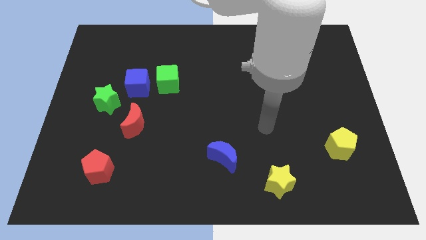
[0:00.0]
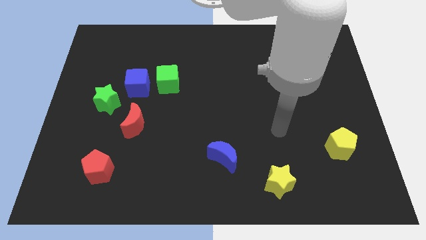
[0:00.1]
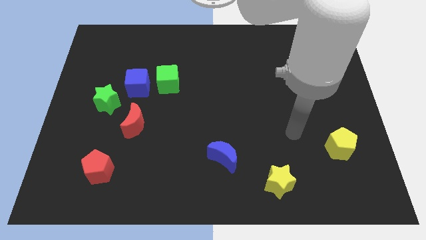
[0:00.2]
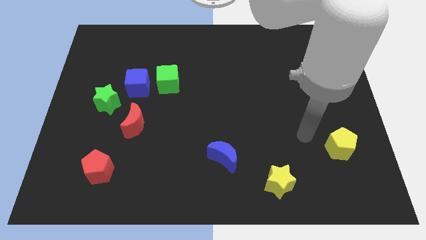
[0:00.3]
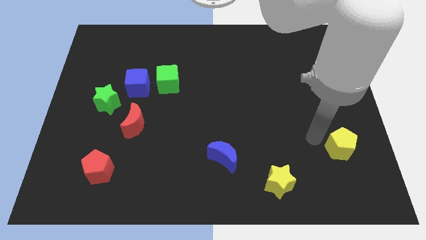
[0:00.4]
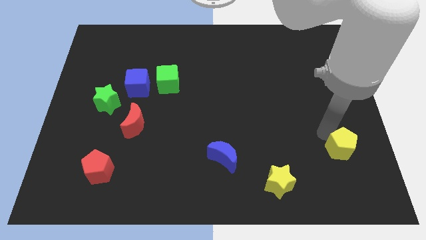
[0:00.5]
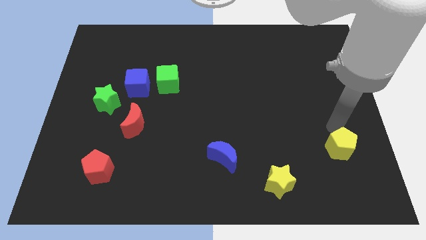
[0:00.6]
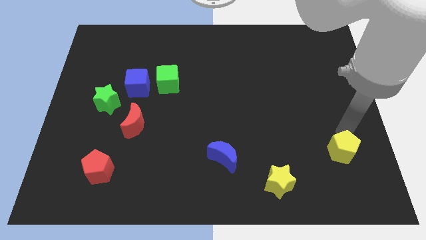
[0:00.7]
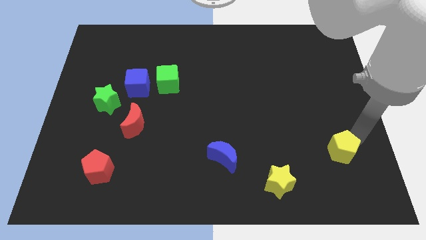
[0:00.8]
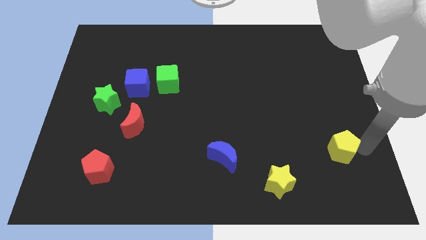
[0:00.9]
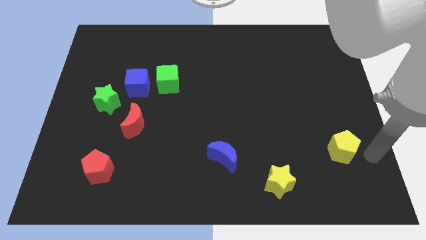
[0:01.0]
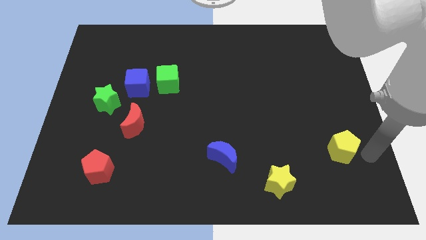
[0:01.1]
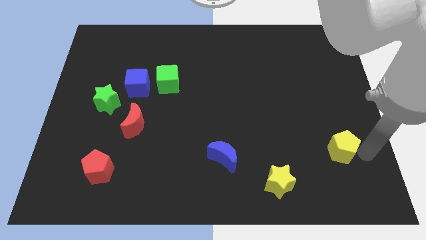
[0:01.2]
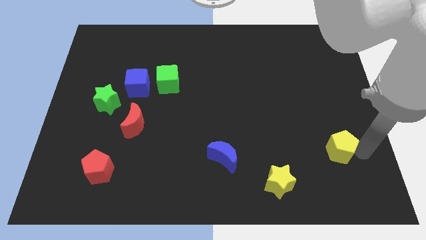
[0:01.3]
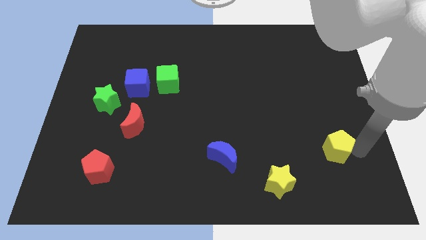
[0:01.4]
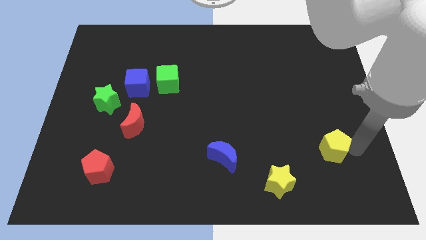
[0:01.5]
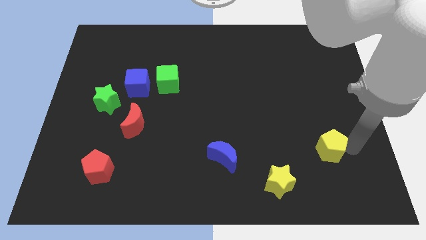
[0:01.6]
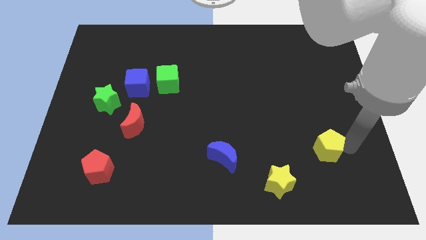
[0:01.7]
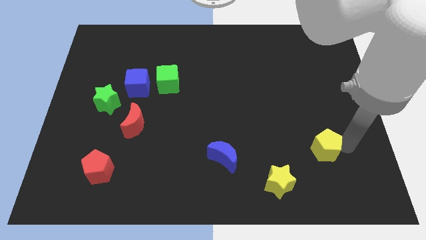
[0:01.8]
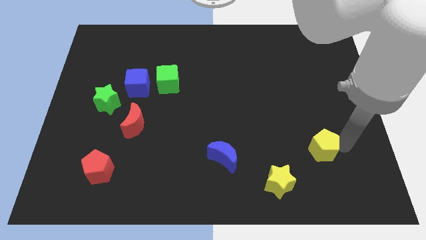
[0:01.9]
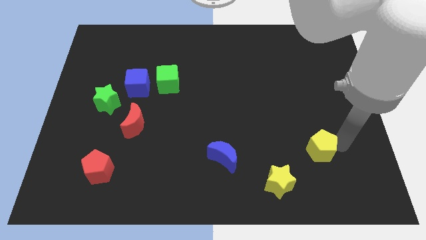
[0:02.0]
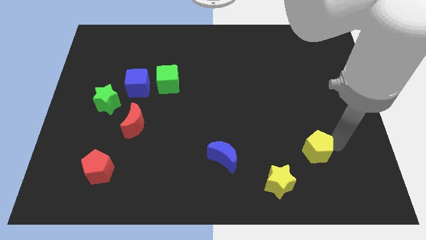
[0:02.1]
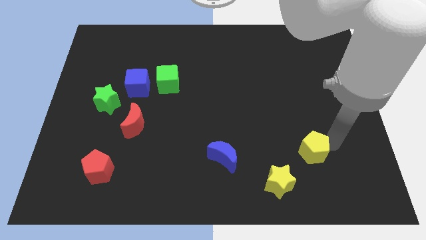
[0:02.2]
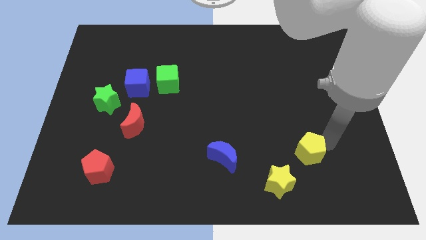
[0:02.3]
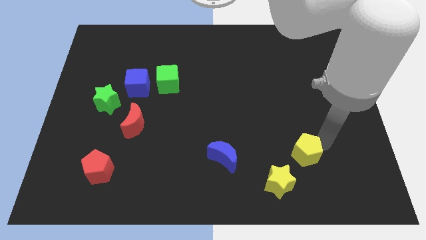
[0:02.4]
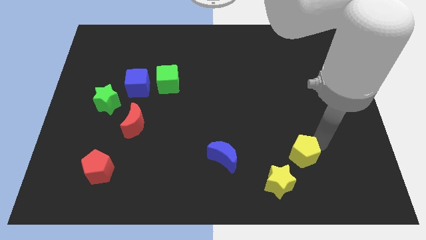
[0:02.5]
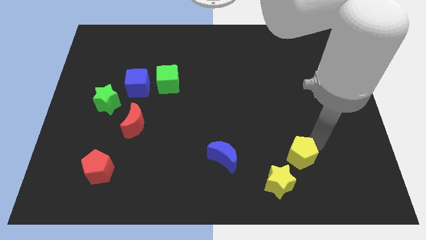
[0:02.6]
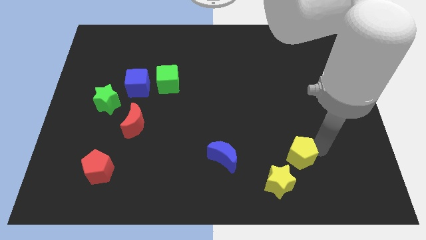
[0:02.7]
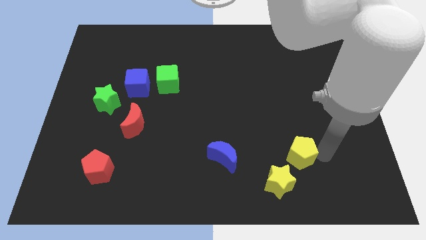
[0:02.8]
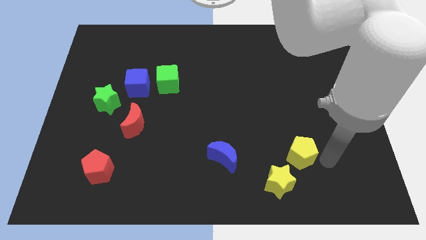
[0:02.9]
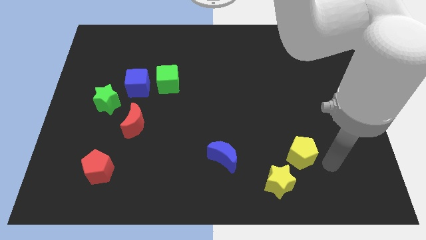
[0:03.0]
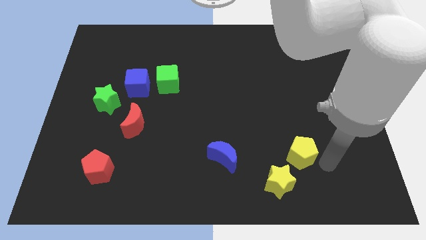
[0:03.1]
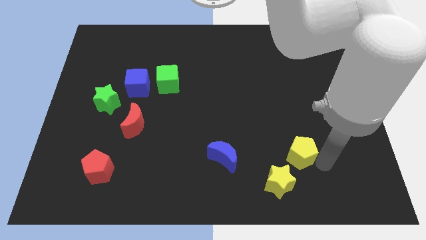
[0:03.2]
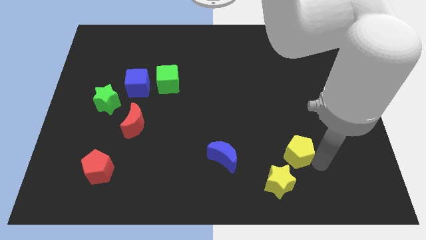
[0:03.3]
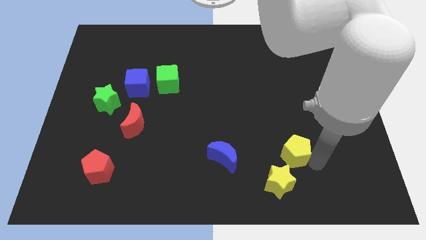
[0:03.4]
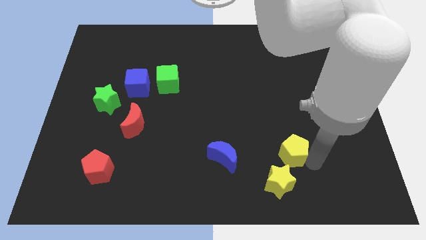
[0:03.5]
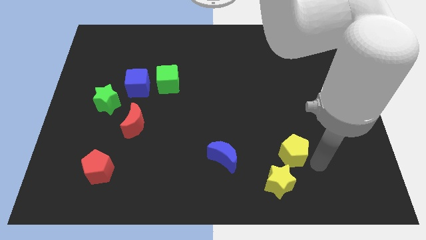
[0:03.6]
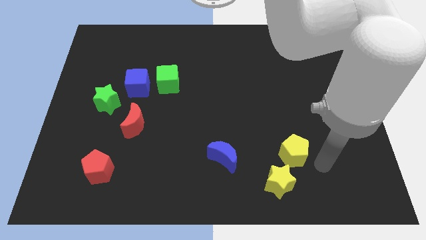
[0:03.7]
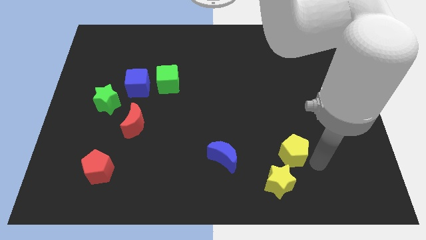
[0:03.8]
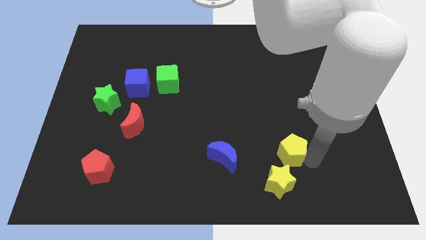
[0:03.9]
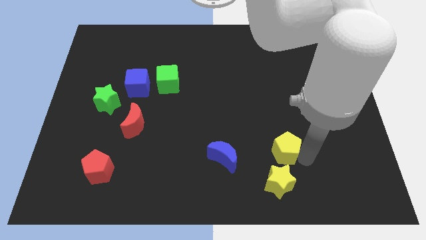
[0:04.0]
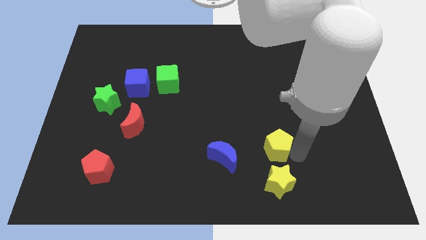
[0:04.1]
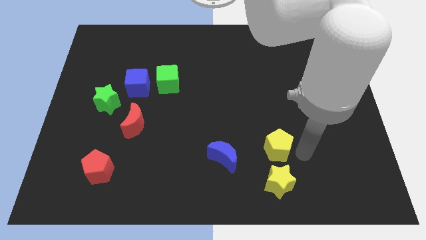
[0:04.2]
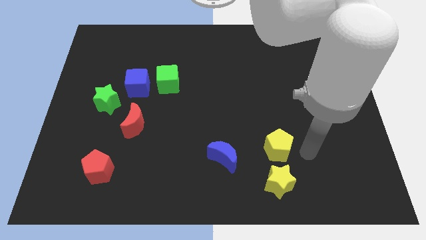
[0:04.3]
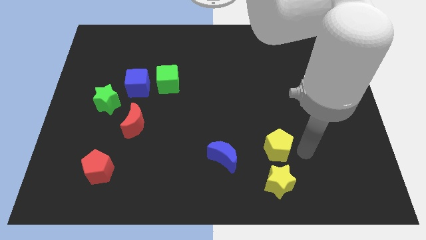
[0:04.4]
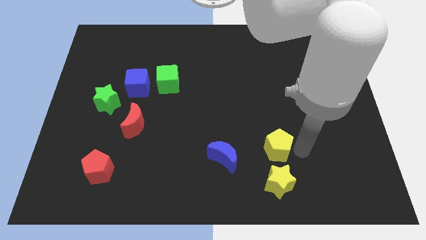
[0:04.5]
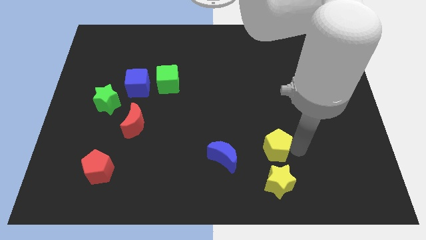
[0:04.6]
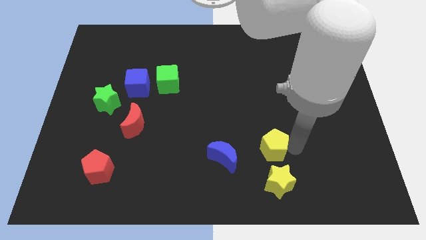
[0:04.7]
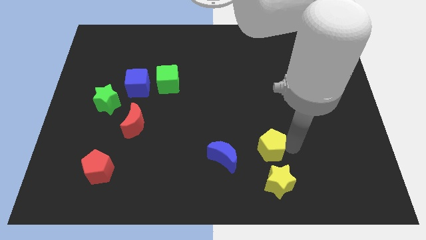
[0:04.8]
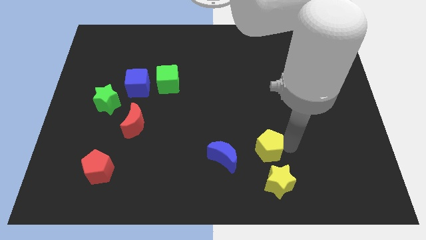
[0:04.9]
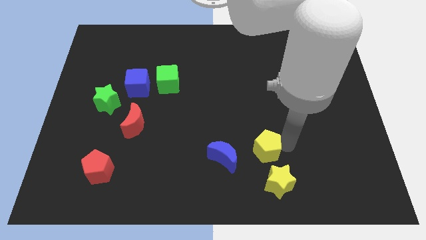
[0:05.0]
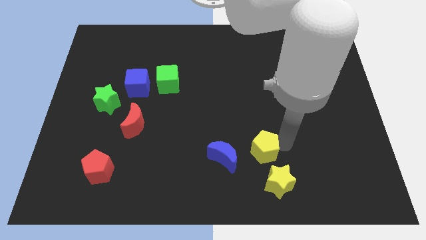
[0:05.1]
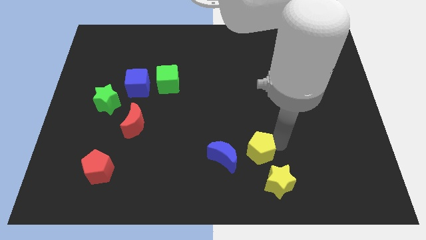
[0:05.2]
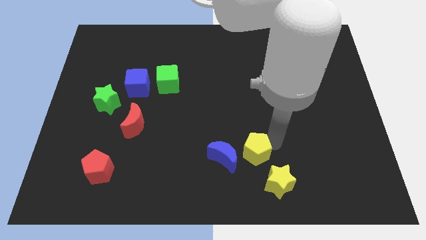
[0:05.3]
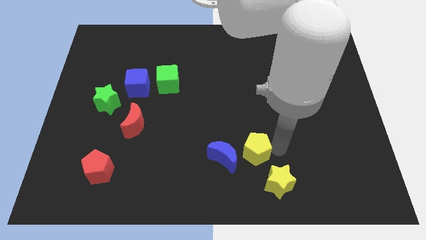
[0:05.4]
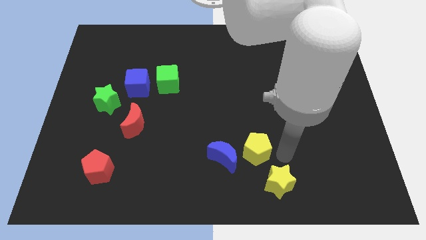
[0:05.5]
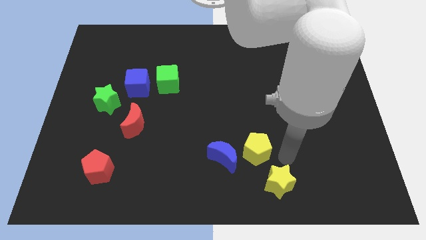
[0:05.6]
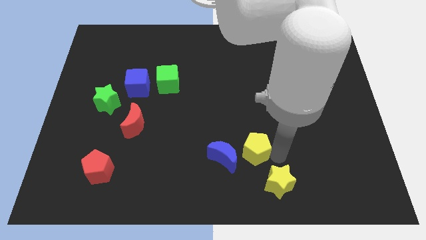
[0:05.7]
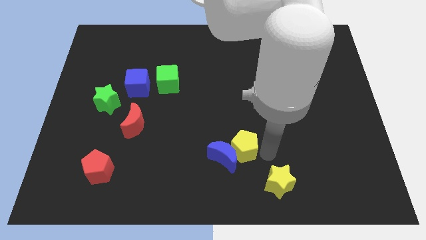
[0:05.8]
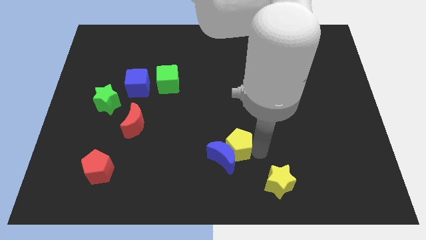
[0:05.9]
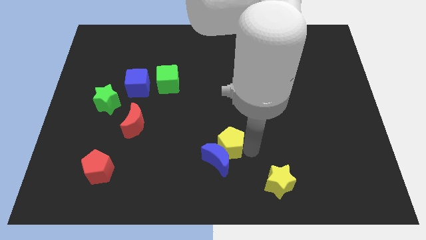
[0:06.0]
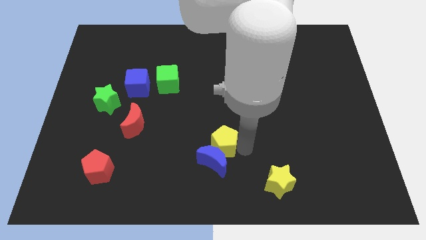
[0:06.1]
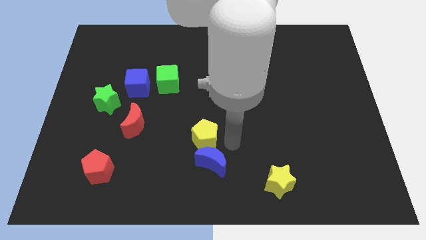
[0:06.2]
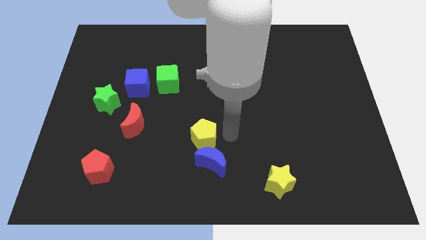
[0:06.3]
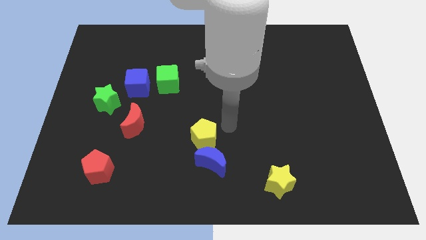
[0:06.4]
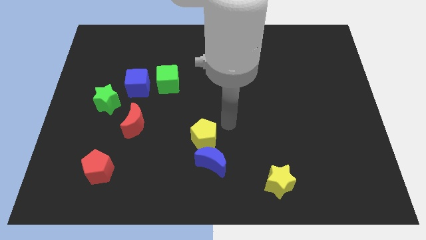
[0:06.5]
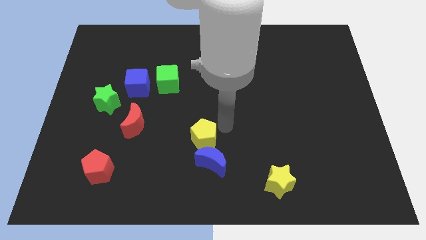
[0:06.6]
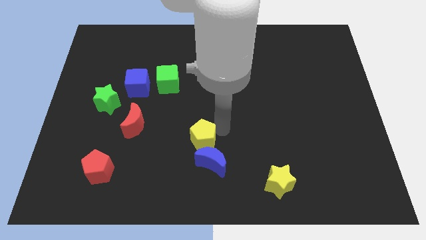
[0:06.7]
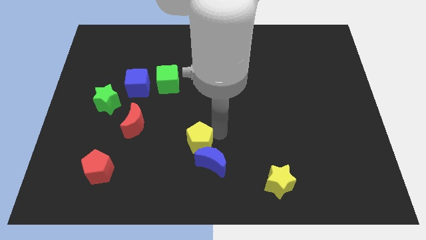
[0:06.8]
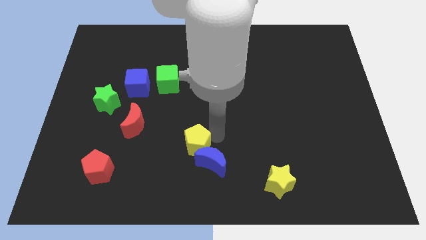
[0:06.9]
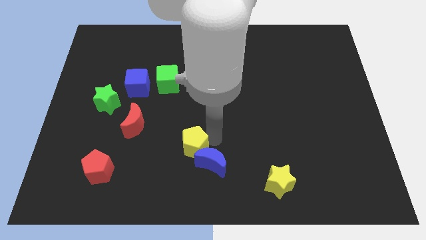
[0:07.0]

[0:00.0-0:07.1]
move the yellow pentagon just left of the blue moon

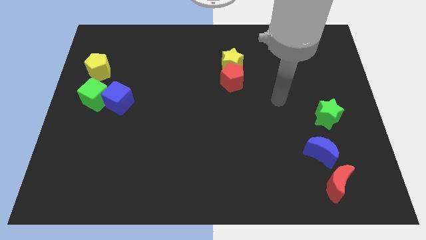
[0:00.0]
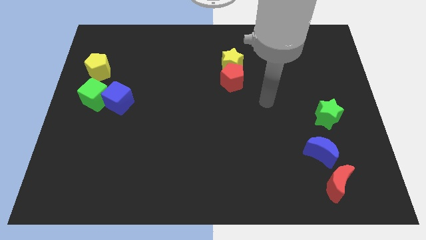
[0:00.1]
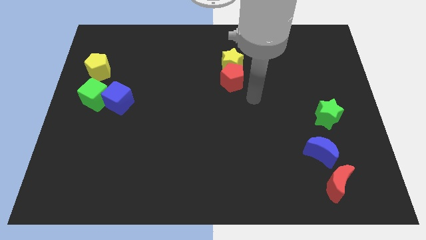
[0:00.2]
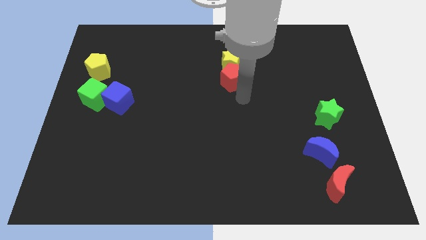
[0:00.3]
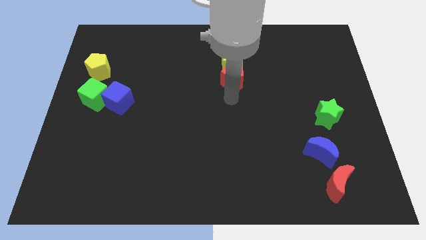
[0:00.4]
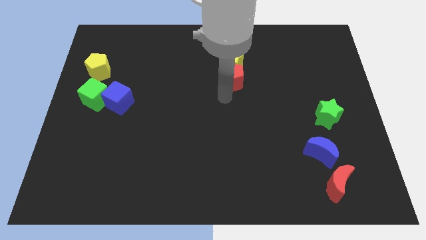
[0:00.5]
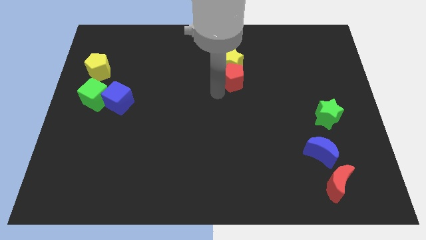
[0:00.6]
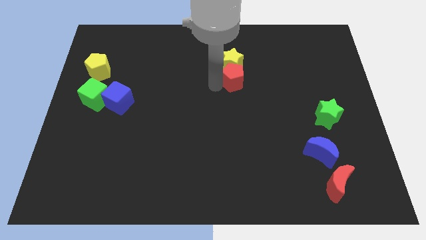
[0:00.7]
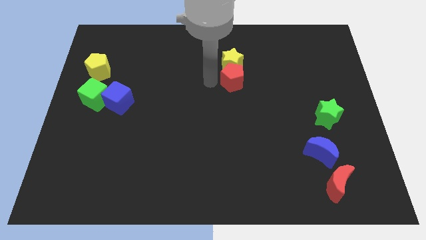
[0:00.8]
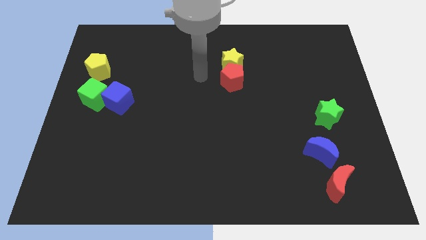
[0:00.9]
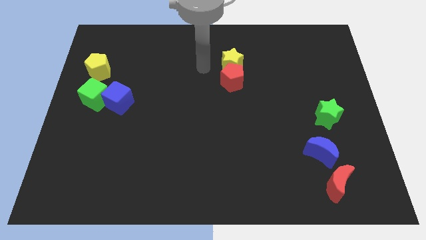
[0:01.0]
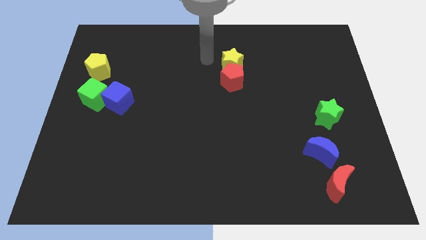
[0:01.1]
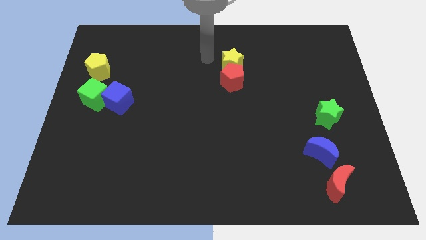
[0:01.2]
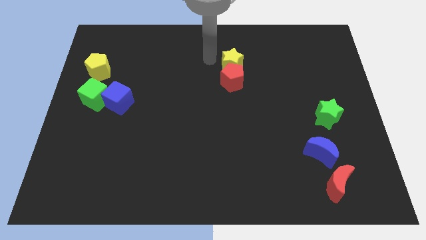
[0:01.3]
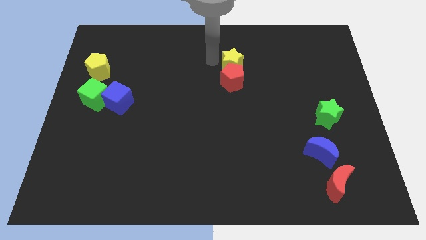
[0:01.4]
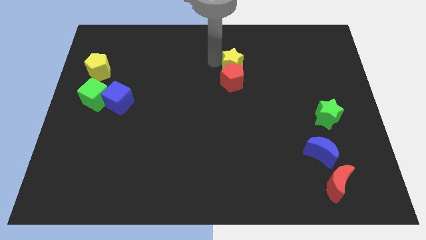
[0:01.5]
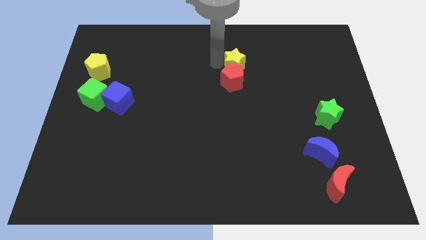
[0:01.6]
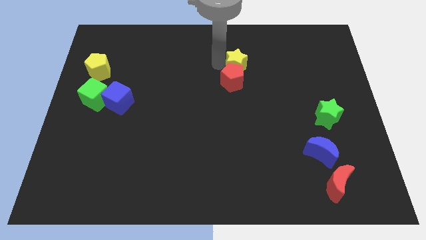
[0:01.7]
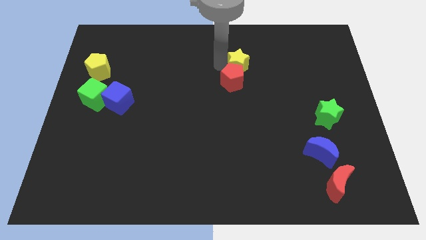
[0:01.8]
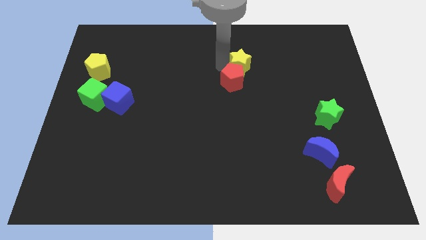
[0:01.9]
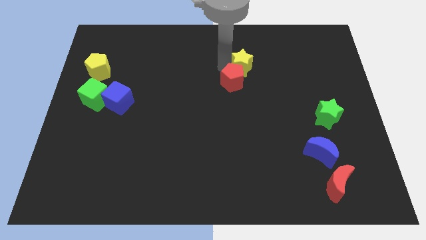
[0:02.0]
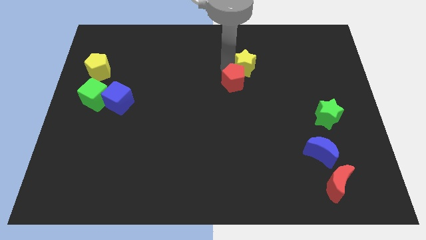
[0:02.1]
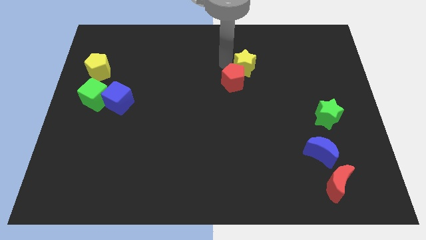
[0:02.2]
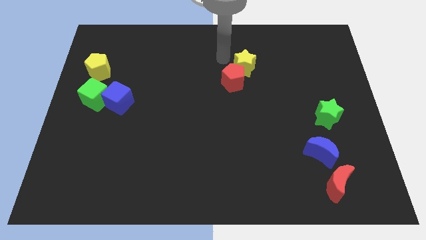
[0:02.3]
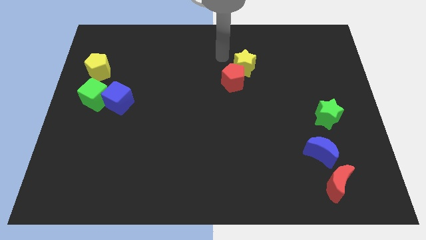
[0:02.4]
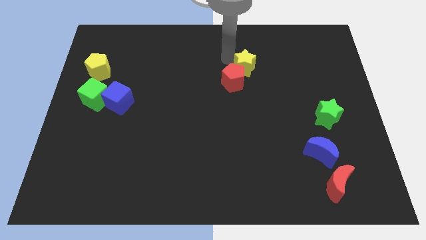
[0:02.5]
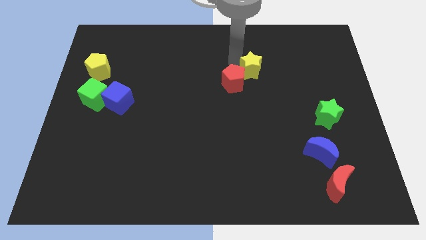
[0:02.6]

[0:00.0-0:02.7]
slide the yellow star to the right side of the red pentagon
